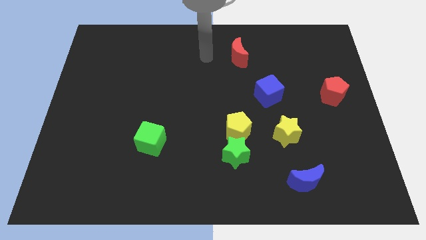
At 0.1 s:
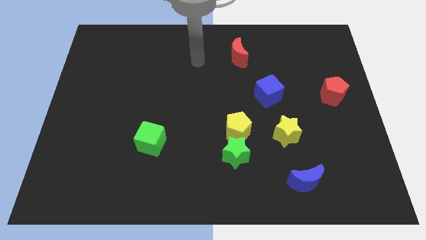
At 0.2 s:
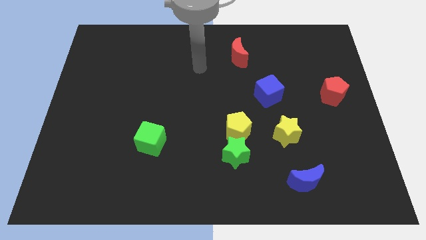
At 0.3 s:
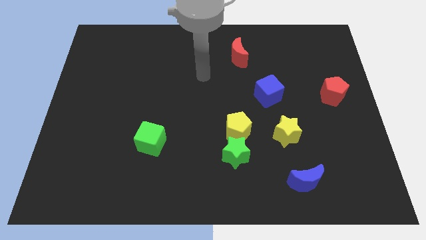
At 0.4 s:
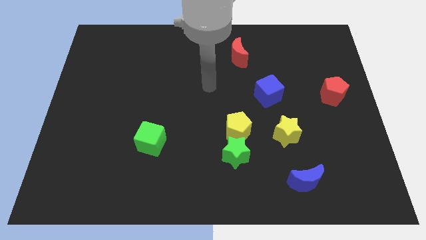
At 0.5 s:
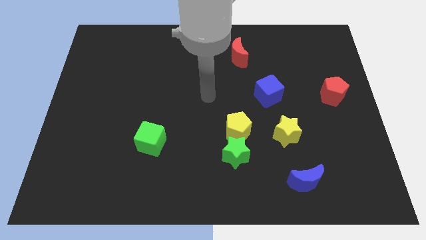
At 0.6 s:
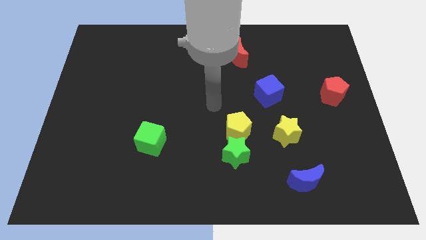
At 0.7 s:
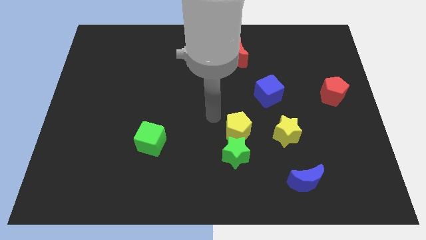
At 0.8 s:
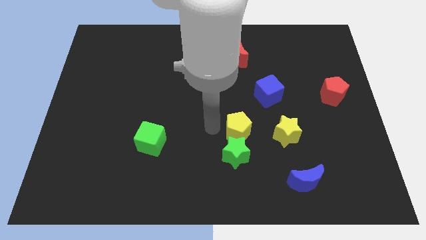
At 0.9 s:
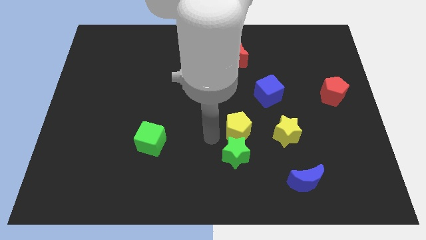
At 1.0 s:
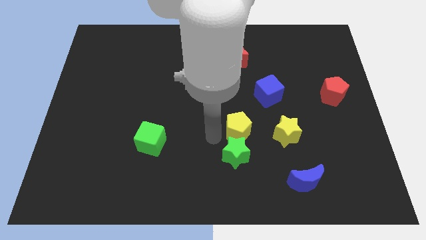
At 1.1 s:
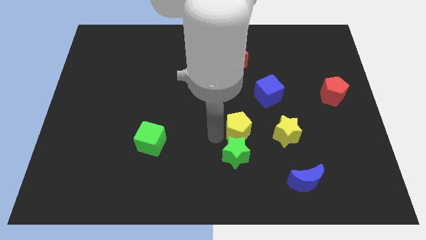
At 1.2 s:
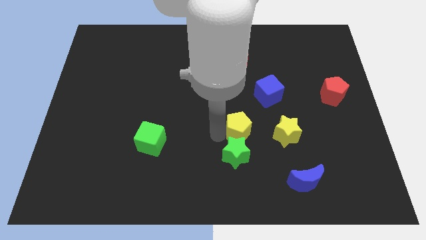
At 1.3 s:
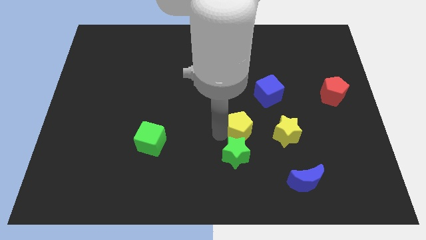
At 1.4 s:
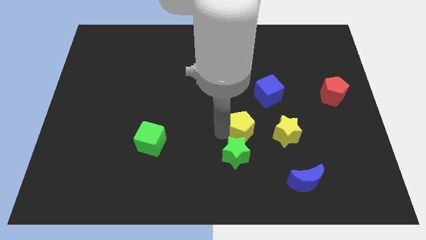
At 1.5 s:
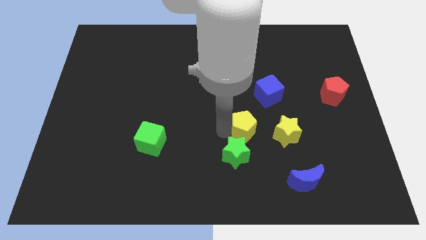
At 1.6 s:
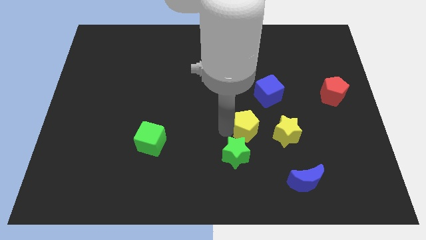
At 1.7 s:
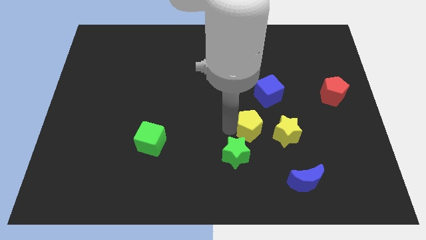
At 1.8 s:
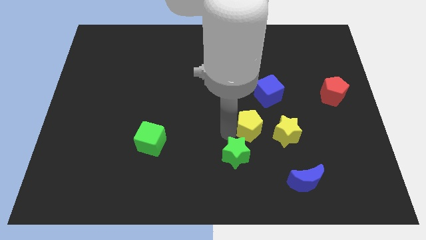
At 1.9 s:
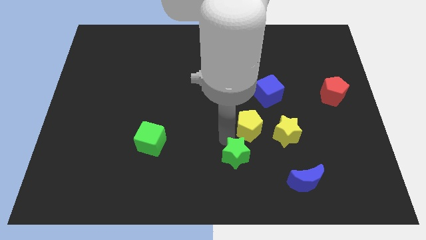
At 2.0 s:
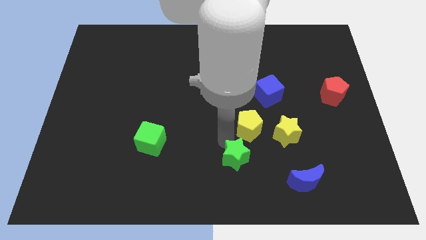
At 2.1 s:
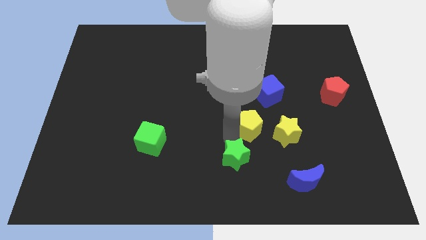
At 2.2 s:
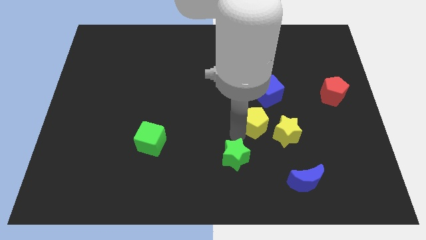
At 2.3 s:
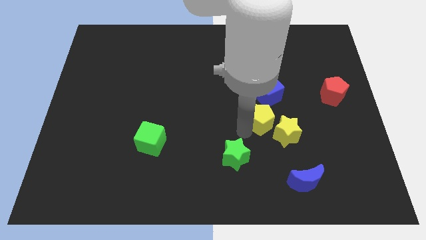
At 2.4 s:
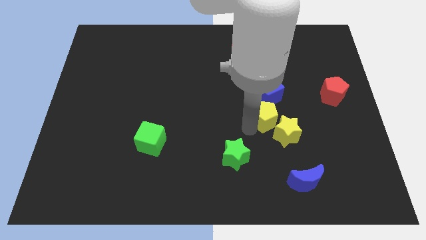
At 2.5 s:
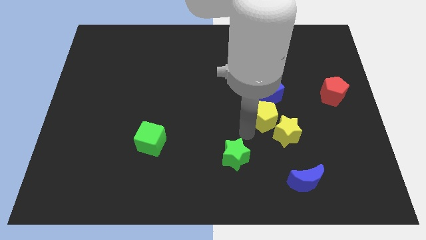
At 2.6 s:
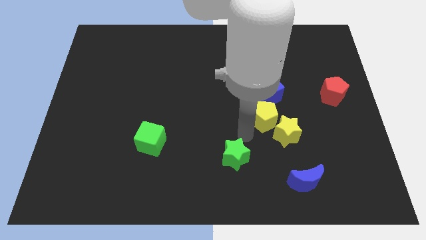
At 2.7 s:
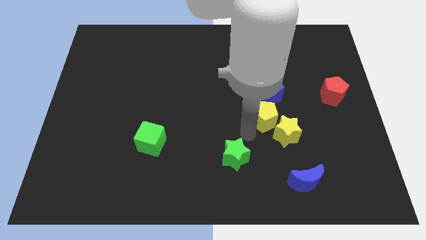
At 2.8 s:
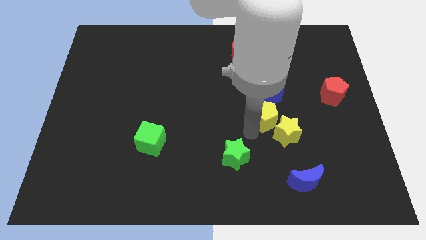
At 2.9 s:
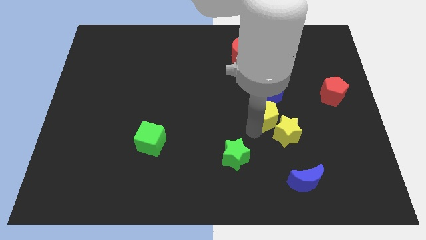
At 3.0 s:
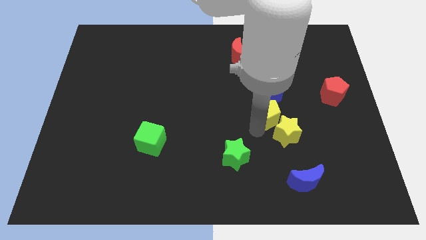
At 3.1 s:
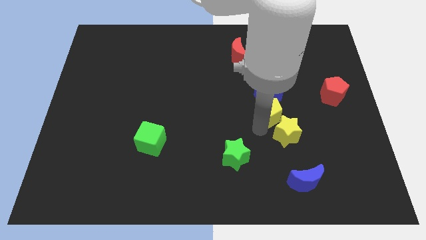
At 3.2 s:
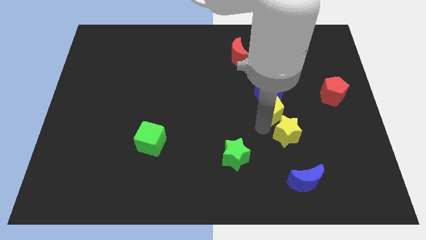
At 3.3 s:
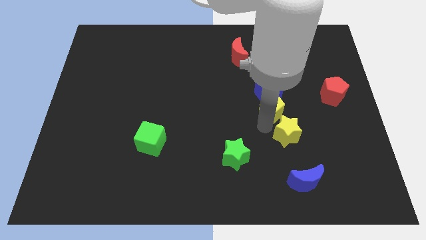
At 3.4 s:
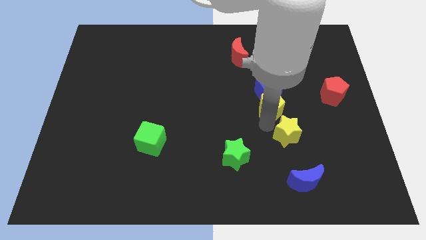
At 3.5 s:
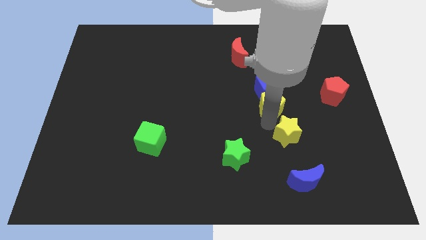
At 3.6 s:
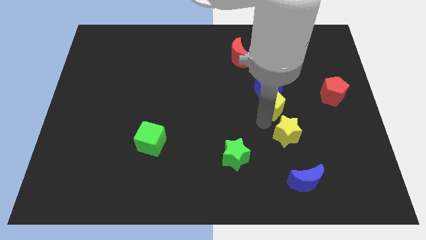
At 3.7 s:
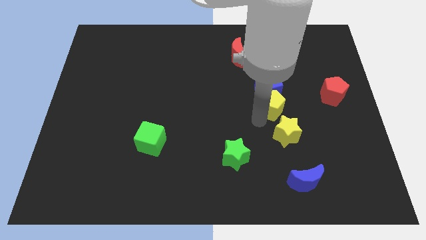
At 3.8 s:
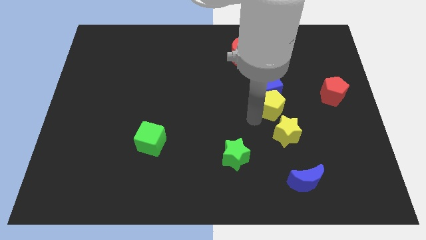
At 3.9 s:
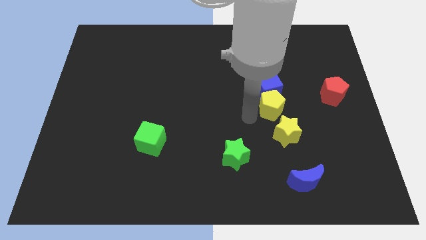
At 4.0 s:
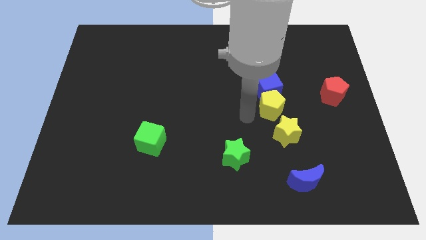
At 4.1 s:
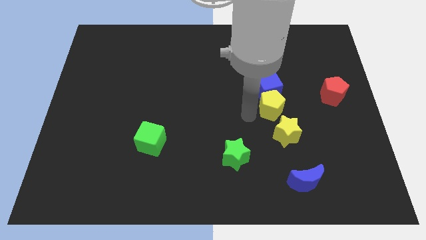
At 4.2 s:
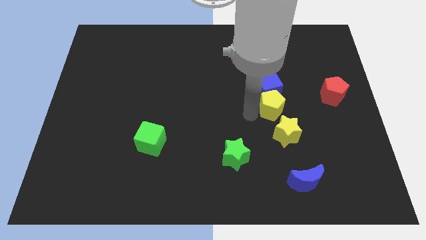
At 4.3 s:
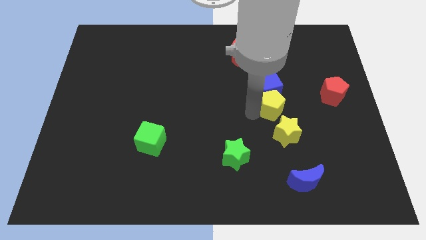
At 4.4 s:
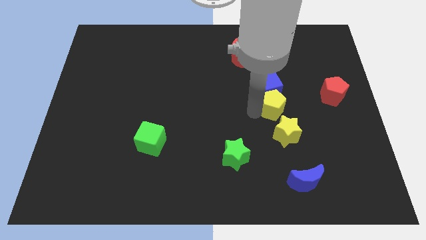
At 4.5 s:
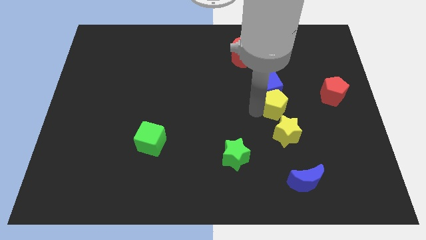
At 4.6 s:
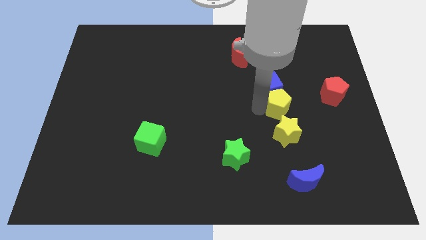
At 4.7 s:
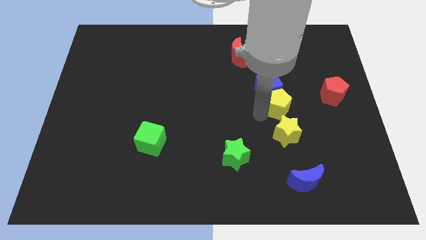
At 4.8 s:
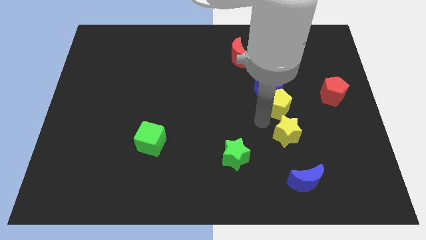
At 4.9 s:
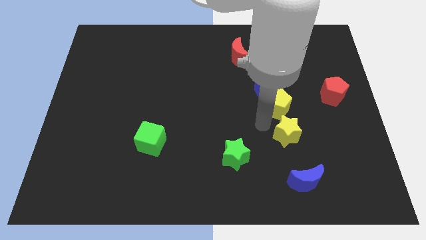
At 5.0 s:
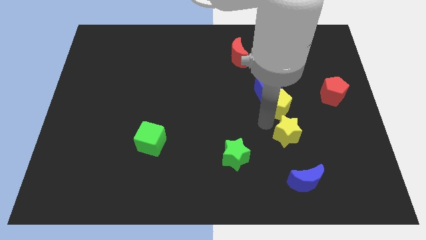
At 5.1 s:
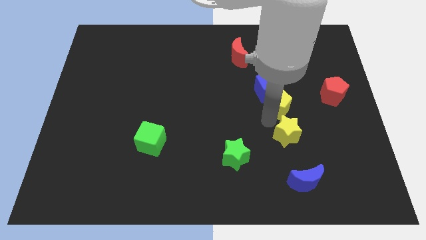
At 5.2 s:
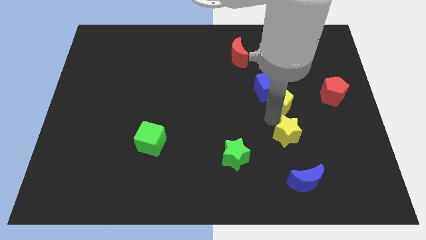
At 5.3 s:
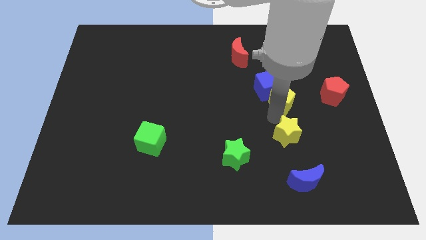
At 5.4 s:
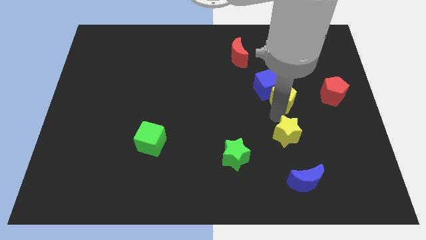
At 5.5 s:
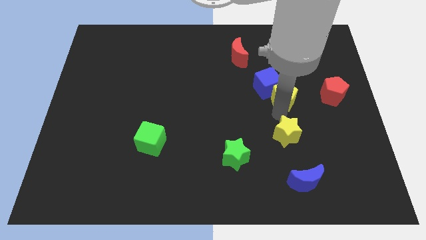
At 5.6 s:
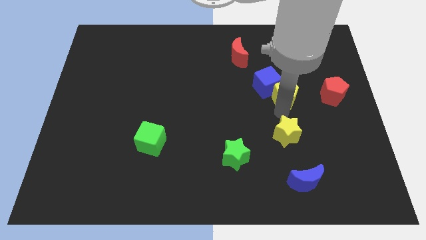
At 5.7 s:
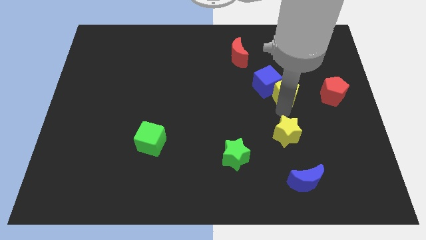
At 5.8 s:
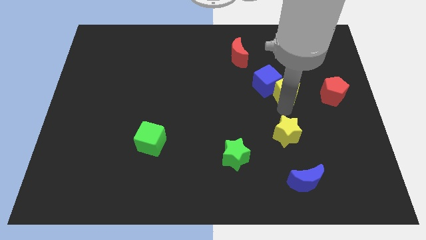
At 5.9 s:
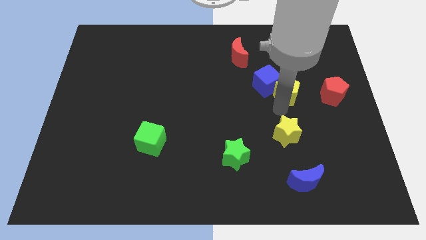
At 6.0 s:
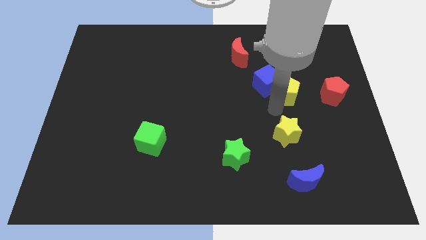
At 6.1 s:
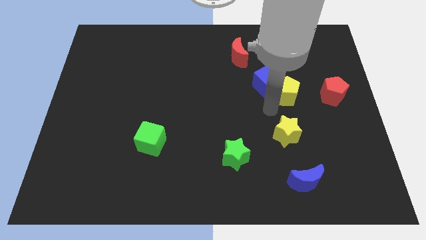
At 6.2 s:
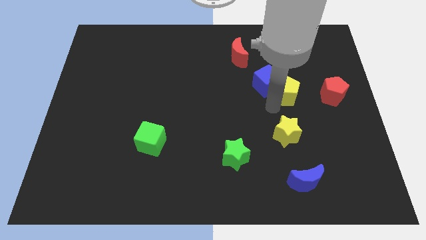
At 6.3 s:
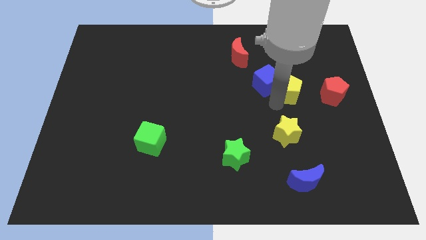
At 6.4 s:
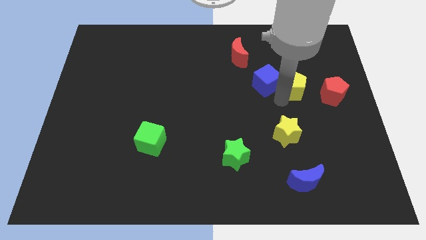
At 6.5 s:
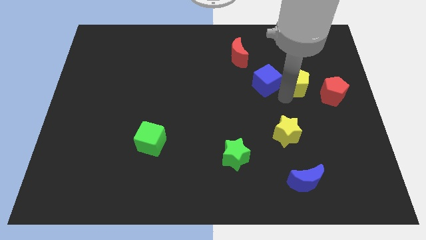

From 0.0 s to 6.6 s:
slide the yellow pentagon diagonally up and to the right

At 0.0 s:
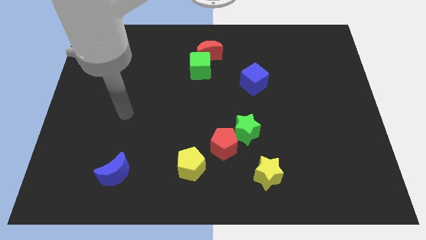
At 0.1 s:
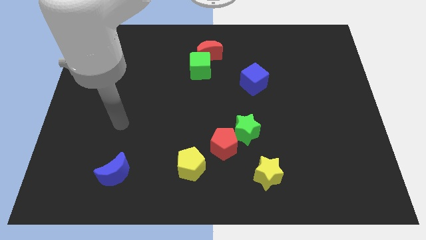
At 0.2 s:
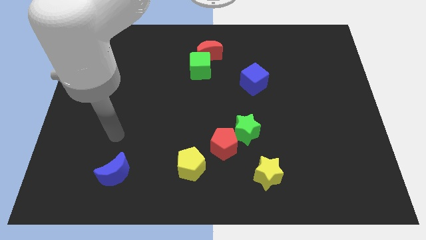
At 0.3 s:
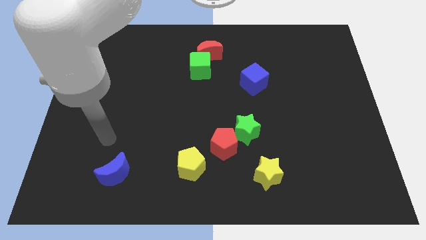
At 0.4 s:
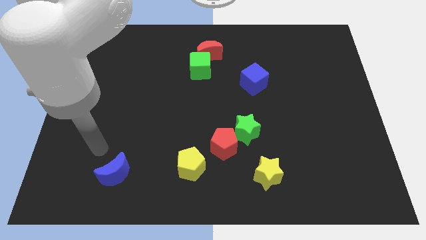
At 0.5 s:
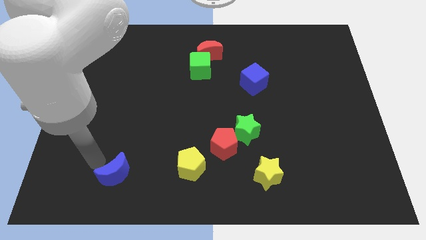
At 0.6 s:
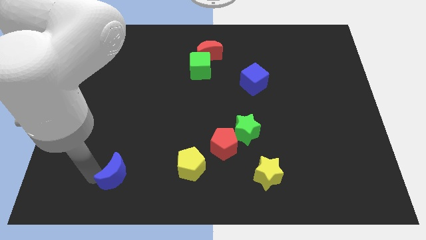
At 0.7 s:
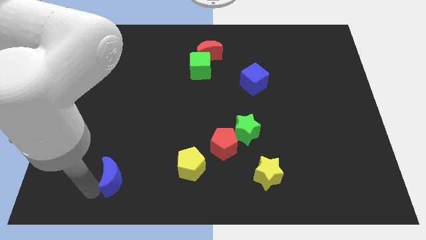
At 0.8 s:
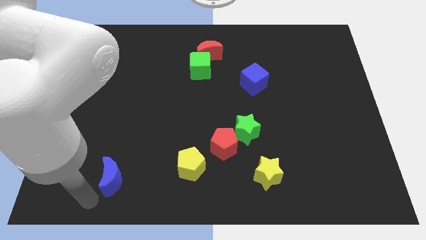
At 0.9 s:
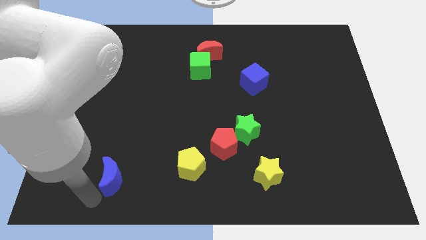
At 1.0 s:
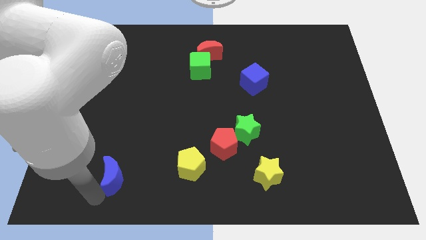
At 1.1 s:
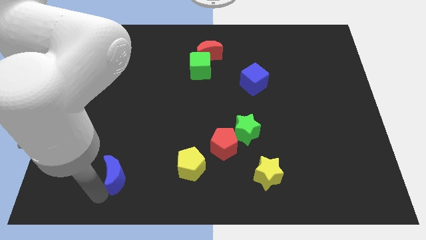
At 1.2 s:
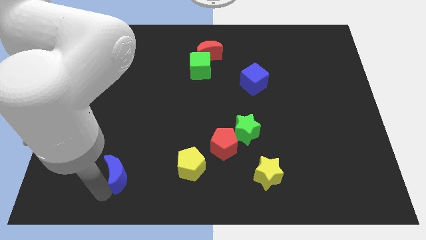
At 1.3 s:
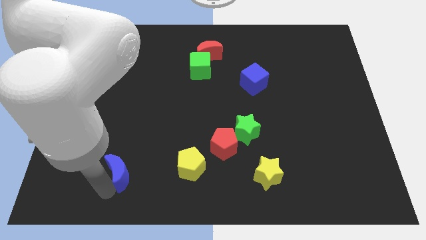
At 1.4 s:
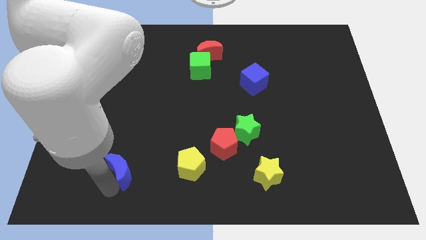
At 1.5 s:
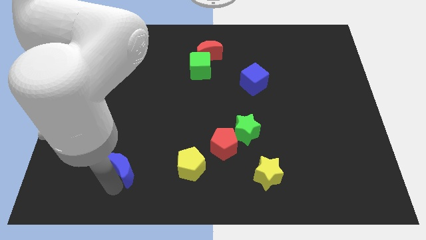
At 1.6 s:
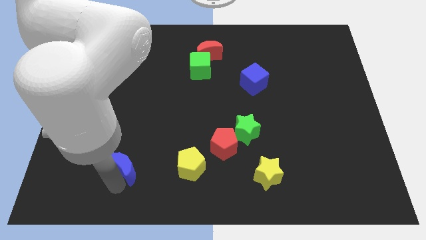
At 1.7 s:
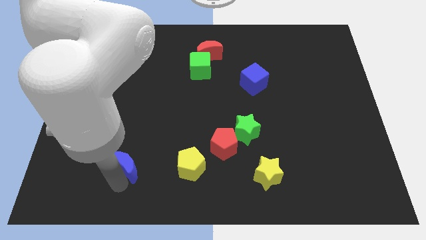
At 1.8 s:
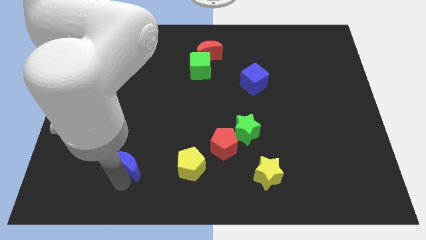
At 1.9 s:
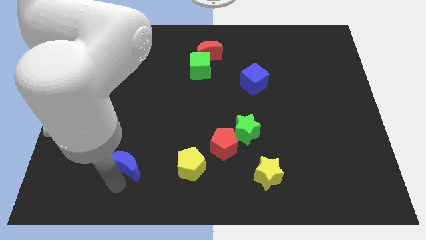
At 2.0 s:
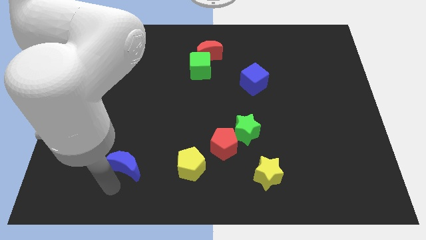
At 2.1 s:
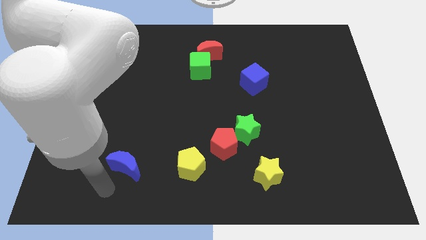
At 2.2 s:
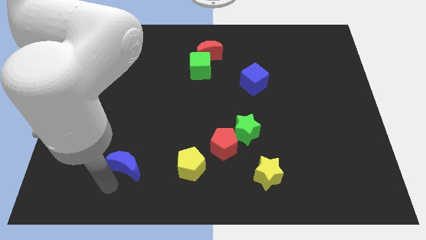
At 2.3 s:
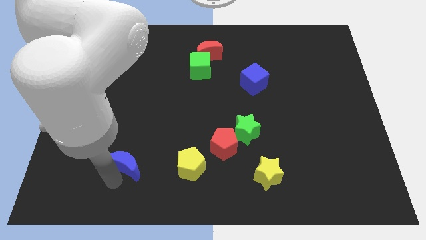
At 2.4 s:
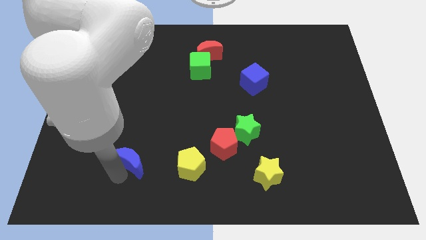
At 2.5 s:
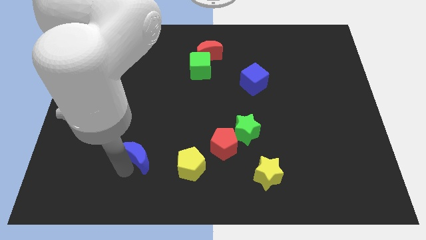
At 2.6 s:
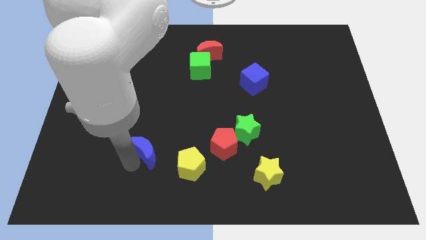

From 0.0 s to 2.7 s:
push the blue moon a little bit diagonally up and to the right
